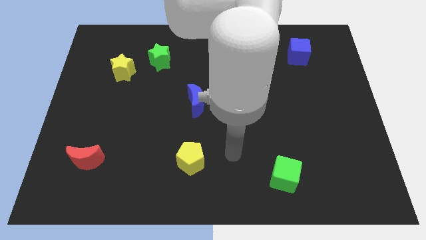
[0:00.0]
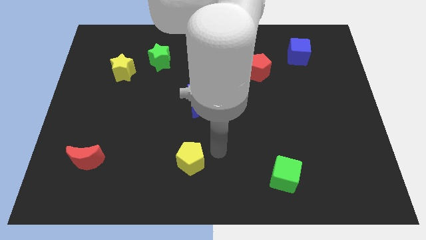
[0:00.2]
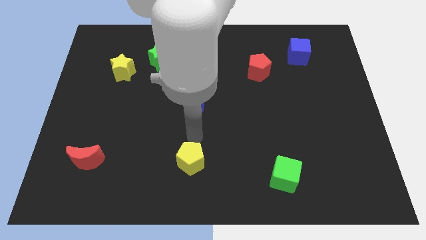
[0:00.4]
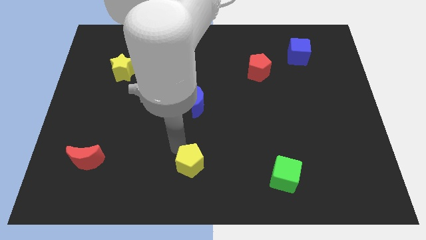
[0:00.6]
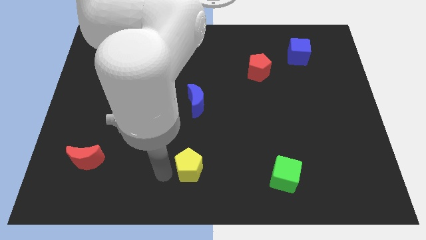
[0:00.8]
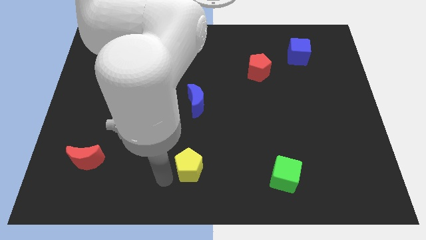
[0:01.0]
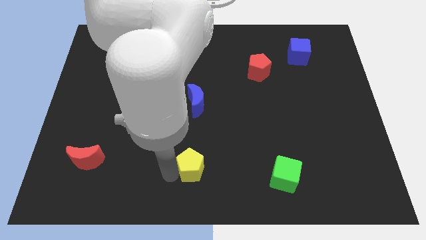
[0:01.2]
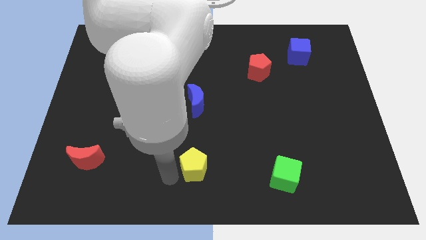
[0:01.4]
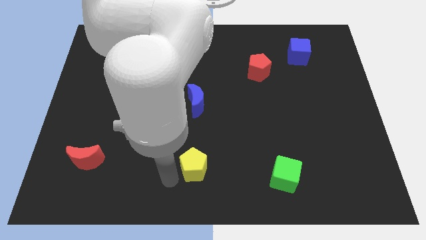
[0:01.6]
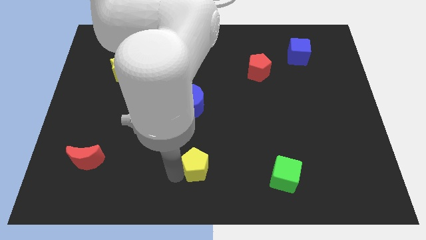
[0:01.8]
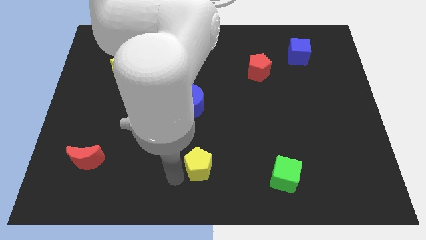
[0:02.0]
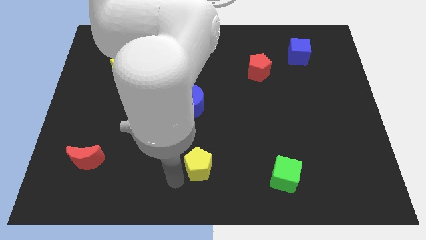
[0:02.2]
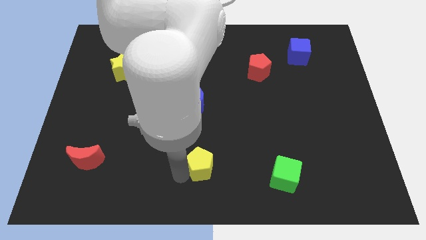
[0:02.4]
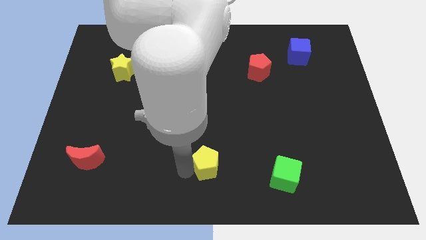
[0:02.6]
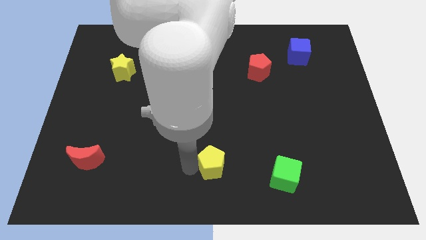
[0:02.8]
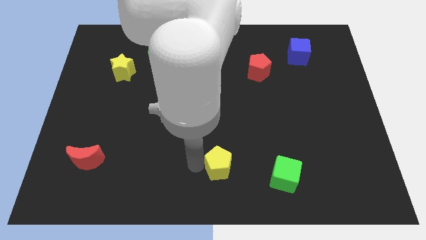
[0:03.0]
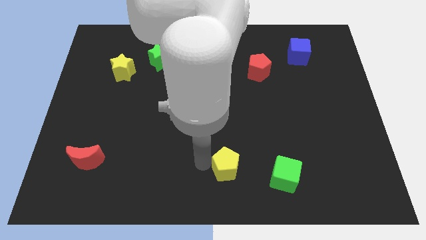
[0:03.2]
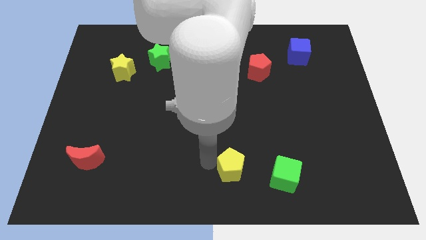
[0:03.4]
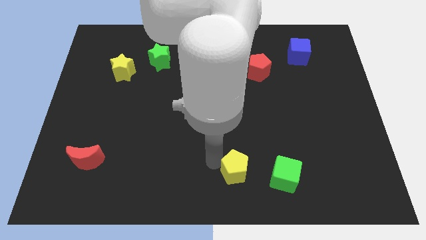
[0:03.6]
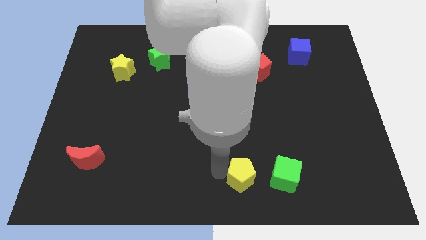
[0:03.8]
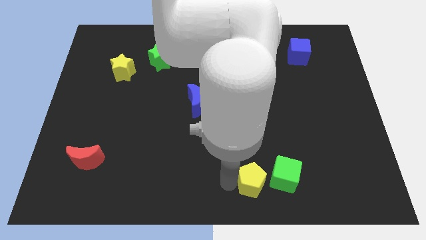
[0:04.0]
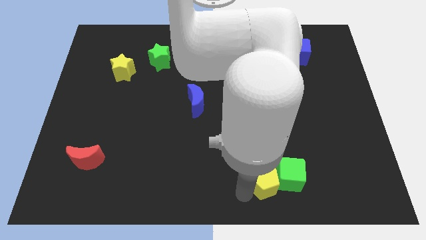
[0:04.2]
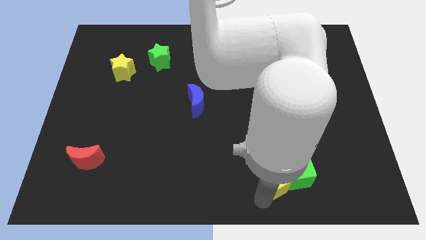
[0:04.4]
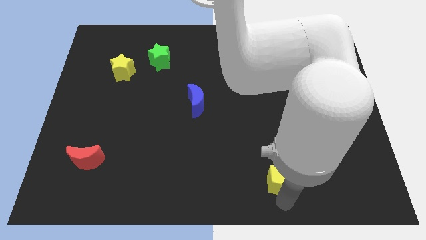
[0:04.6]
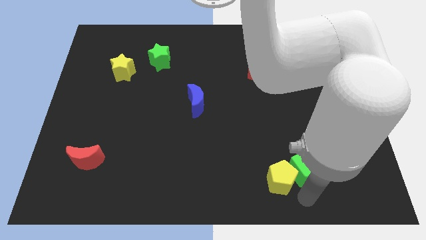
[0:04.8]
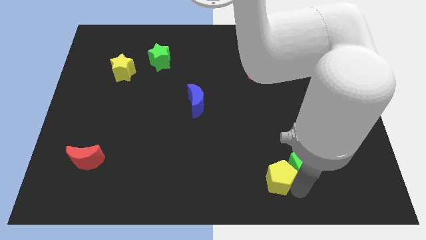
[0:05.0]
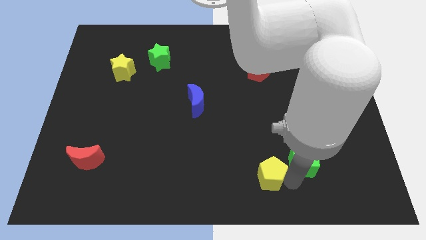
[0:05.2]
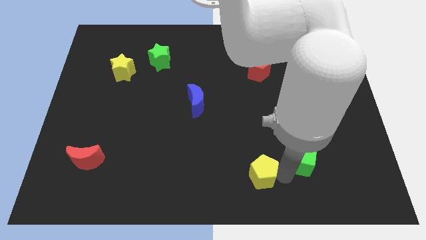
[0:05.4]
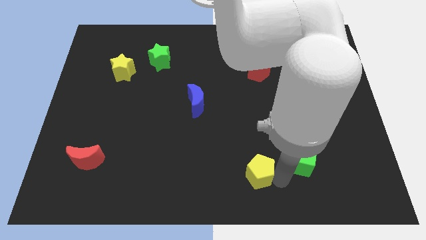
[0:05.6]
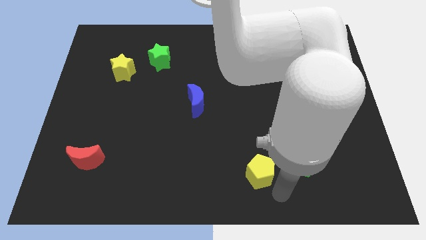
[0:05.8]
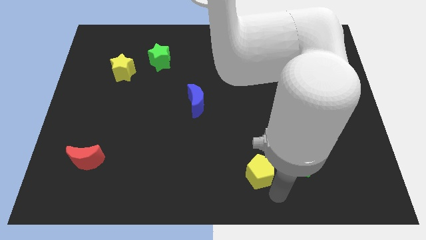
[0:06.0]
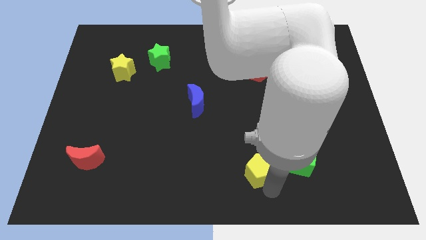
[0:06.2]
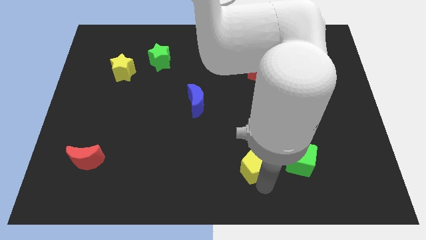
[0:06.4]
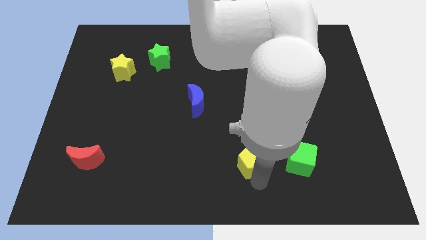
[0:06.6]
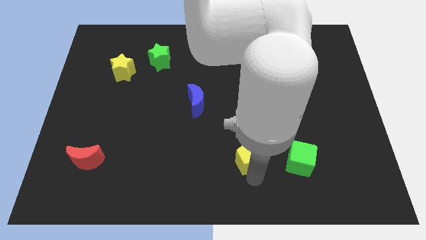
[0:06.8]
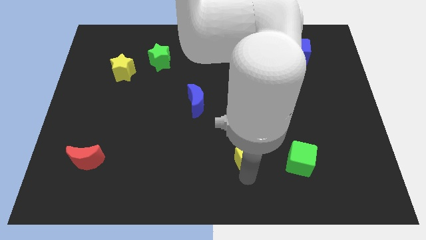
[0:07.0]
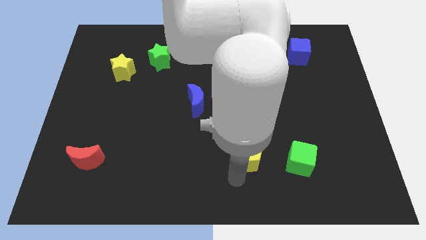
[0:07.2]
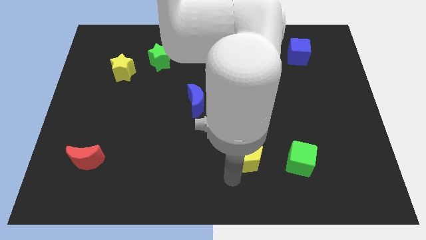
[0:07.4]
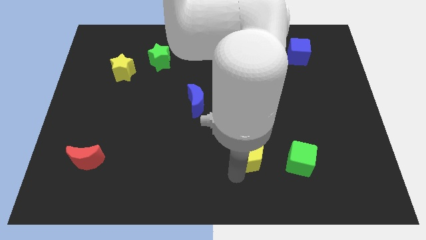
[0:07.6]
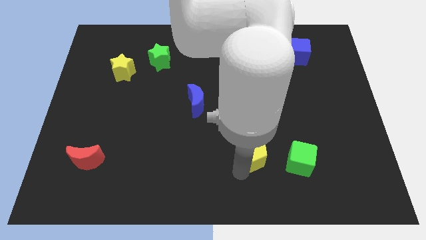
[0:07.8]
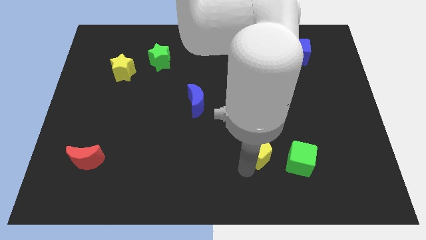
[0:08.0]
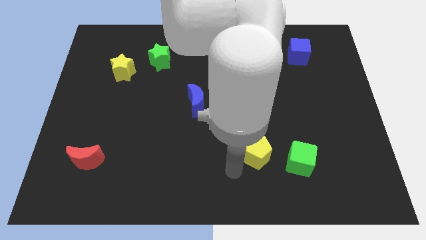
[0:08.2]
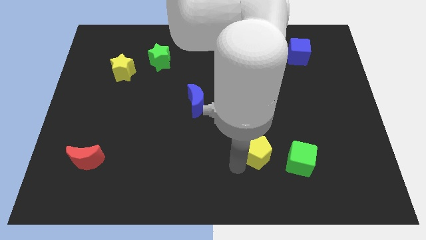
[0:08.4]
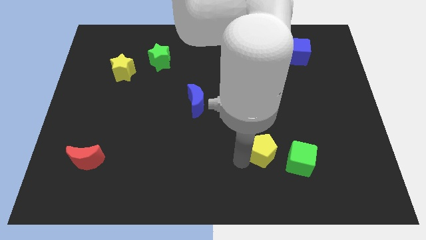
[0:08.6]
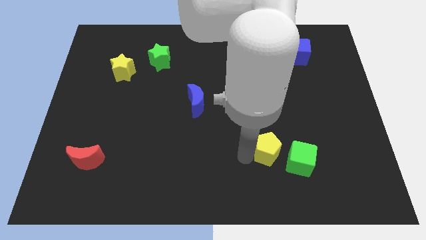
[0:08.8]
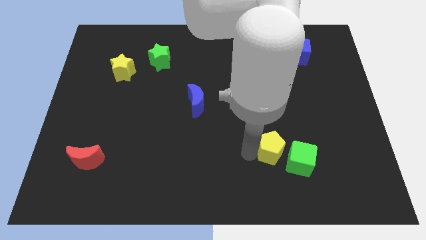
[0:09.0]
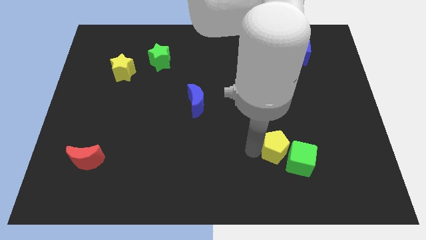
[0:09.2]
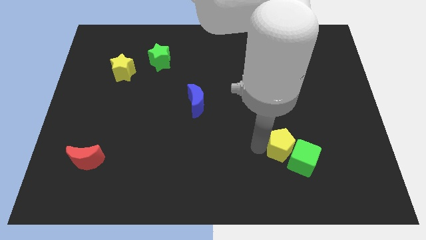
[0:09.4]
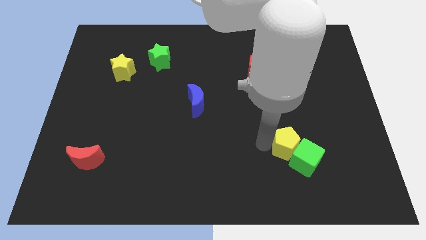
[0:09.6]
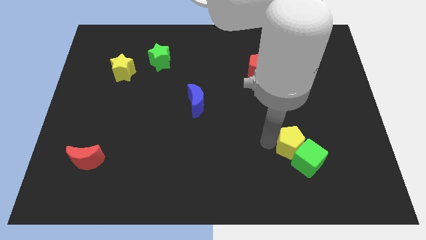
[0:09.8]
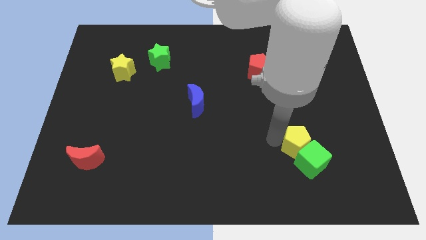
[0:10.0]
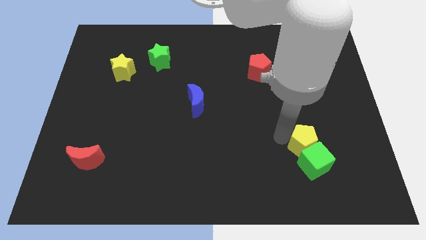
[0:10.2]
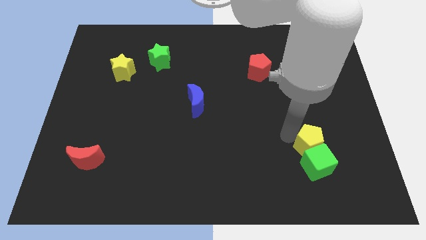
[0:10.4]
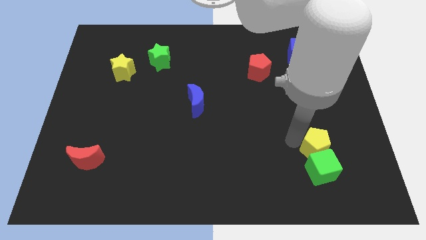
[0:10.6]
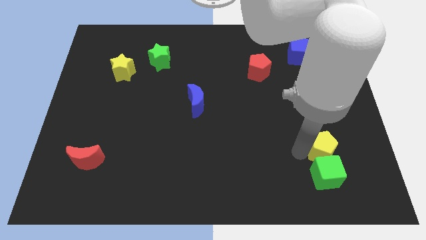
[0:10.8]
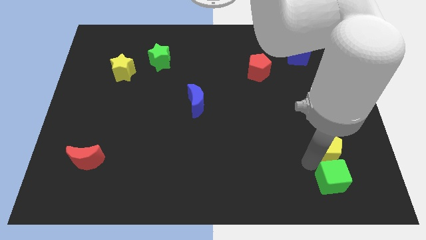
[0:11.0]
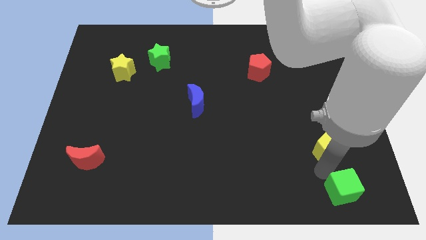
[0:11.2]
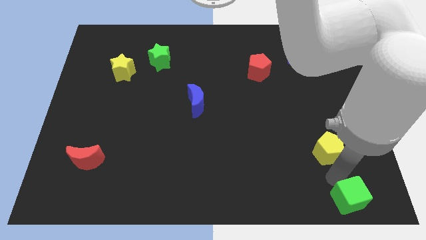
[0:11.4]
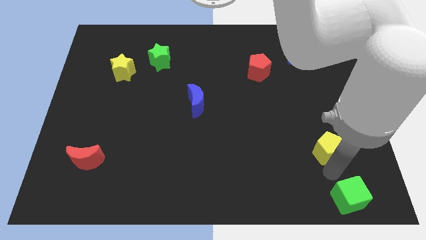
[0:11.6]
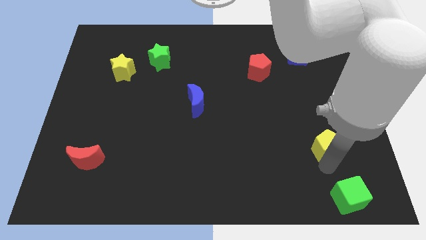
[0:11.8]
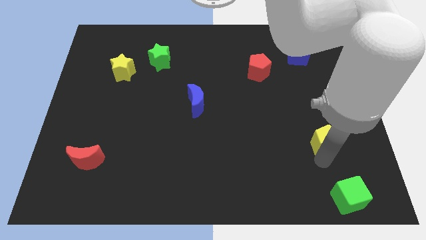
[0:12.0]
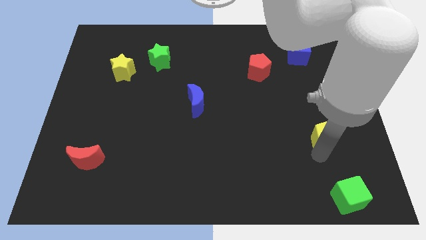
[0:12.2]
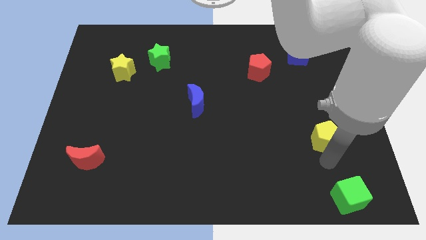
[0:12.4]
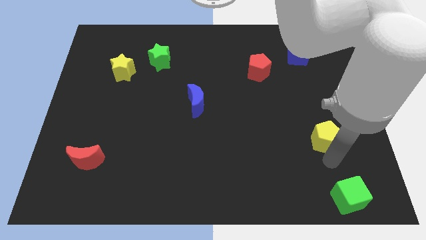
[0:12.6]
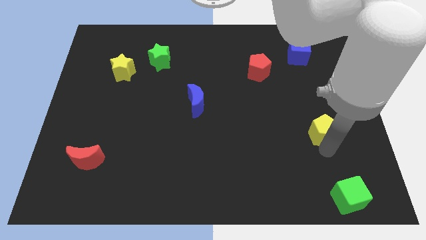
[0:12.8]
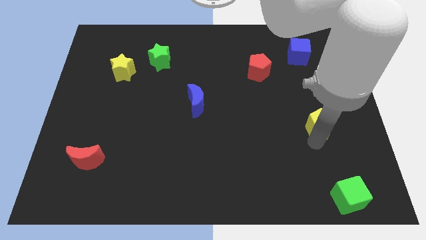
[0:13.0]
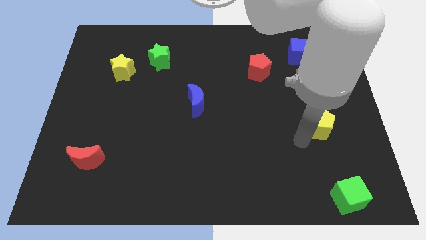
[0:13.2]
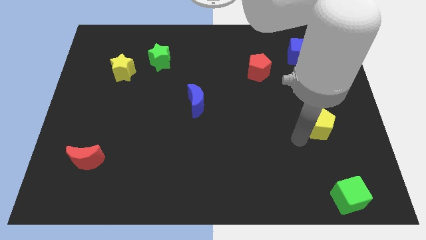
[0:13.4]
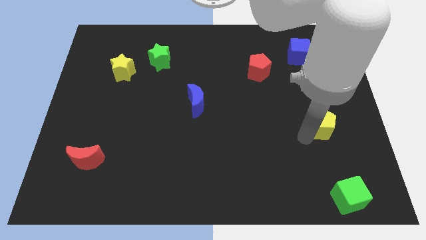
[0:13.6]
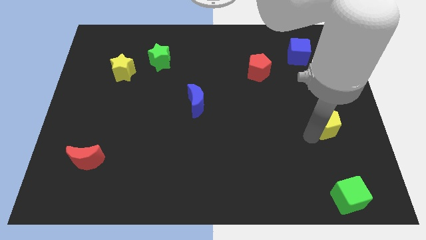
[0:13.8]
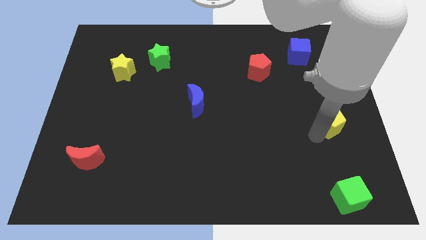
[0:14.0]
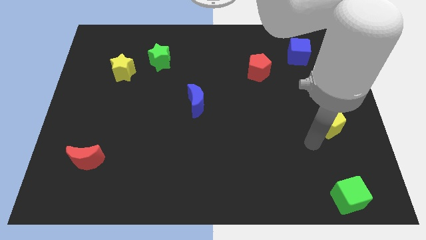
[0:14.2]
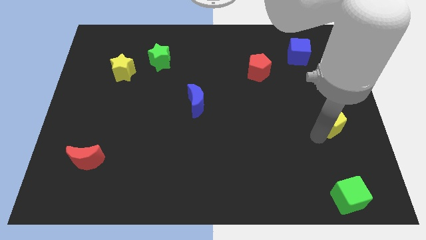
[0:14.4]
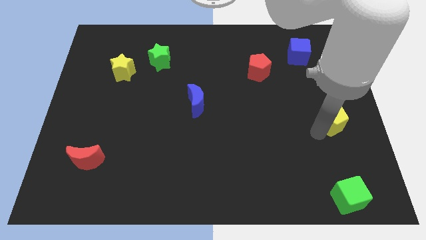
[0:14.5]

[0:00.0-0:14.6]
put the yellow pentagon to the right side of the board

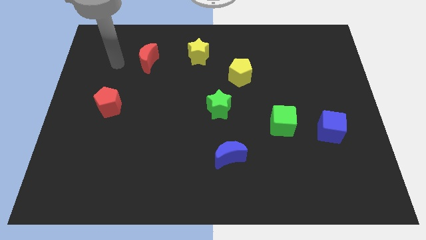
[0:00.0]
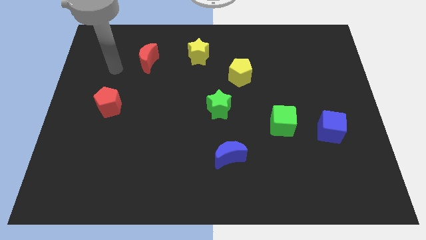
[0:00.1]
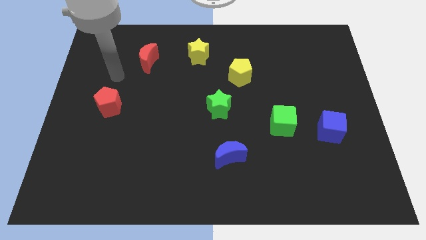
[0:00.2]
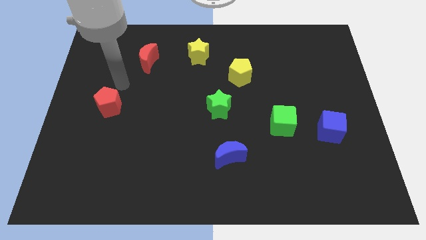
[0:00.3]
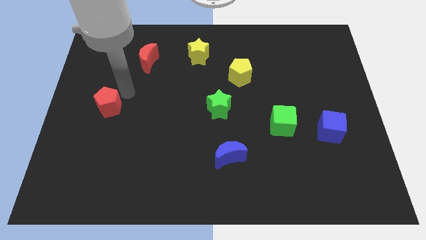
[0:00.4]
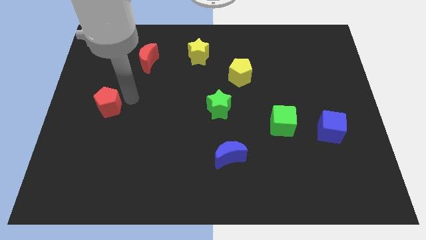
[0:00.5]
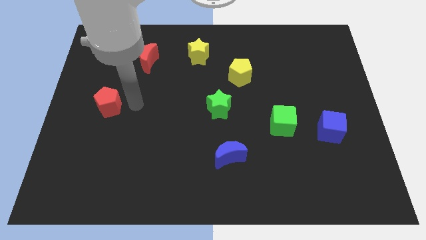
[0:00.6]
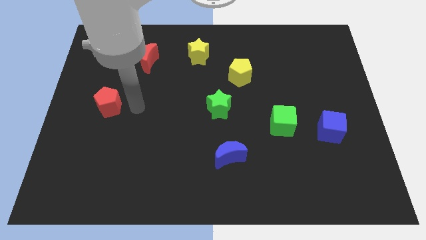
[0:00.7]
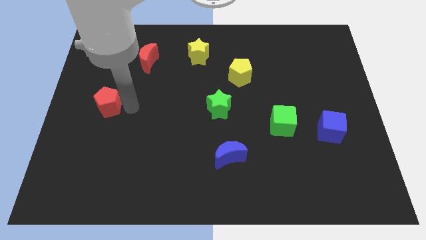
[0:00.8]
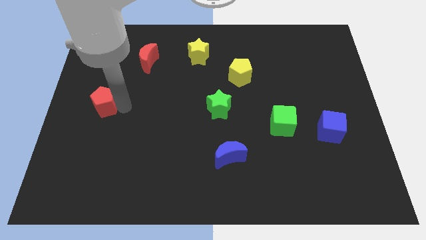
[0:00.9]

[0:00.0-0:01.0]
move the red pentagon to the left side
